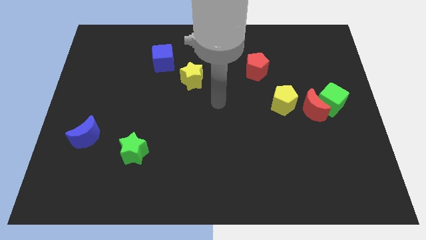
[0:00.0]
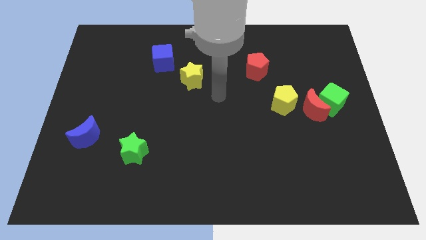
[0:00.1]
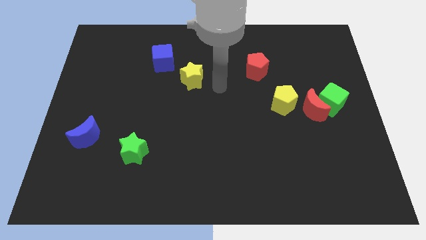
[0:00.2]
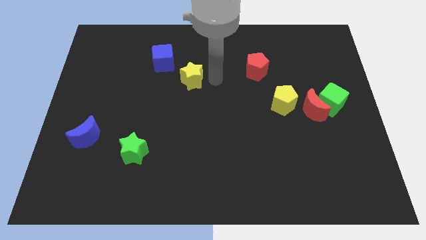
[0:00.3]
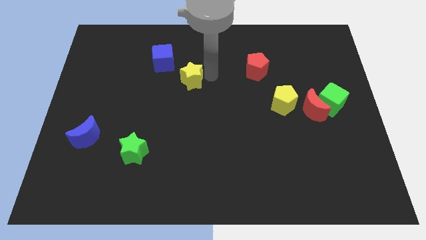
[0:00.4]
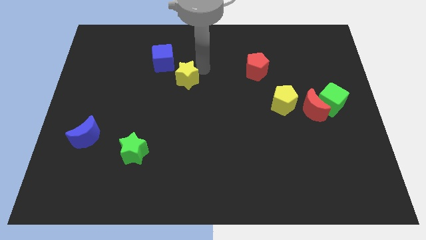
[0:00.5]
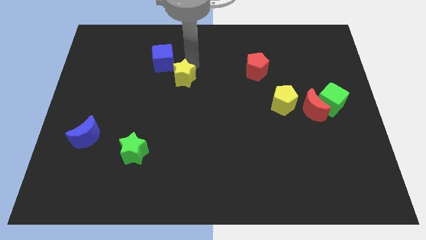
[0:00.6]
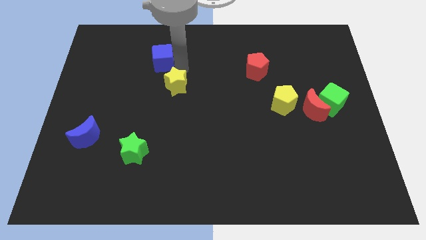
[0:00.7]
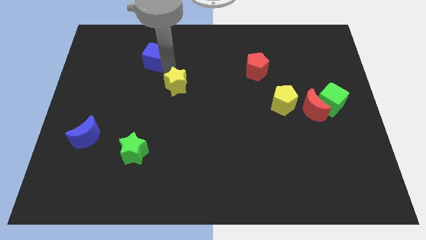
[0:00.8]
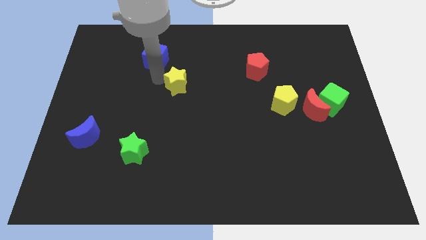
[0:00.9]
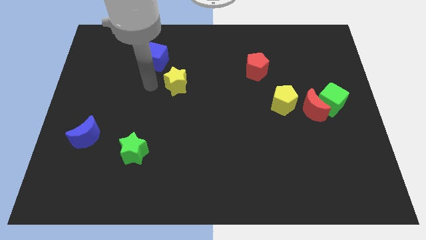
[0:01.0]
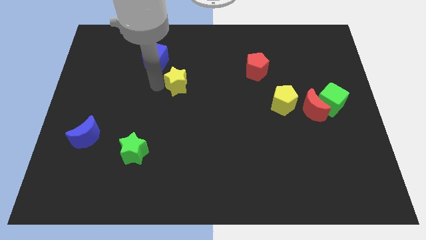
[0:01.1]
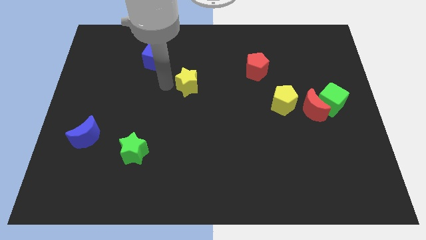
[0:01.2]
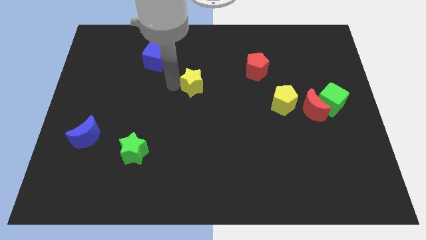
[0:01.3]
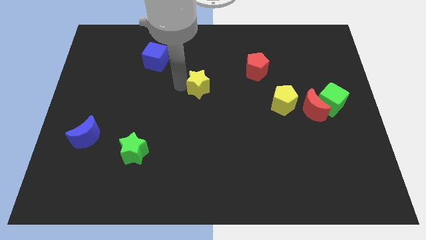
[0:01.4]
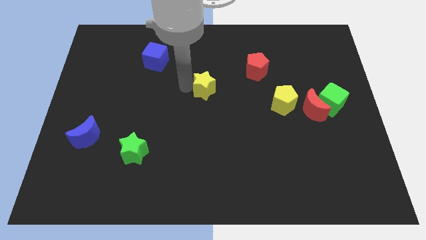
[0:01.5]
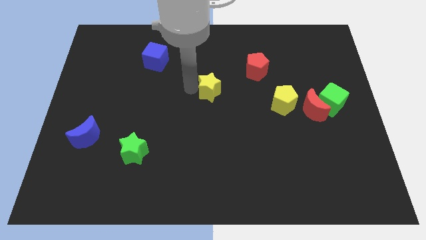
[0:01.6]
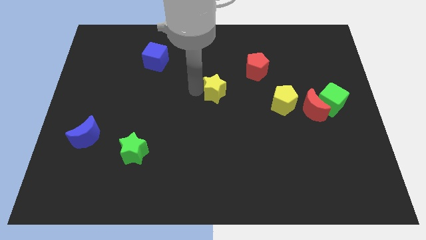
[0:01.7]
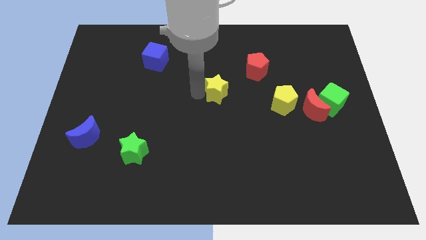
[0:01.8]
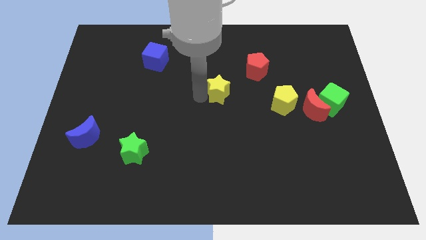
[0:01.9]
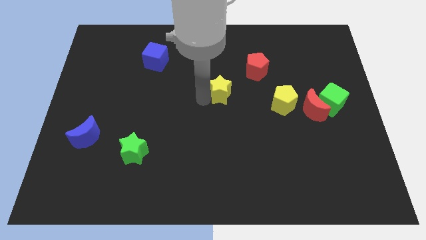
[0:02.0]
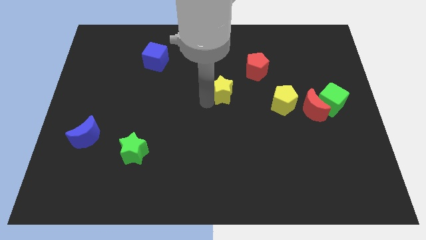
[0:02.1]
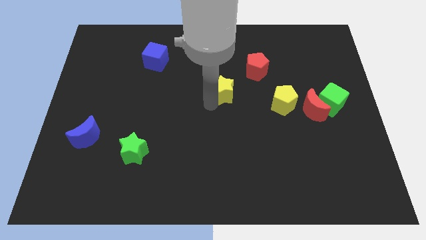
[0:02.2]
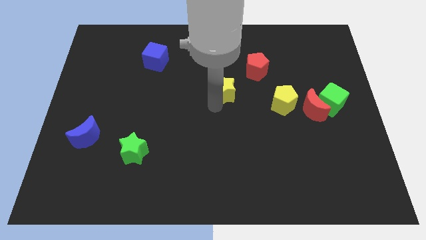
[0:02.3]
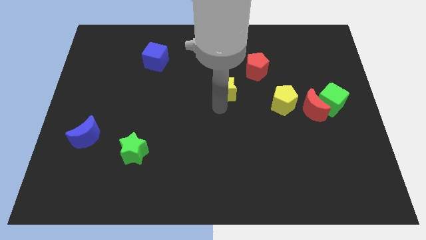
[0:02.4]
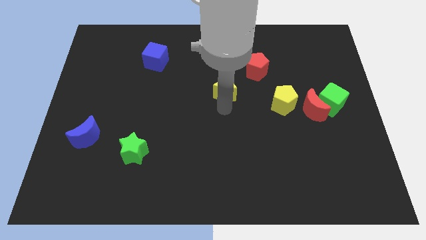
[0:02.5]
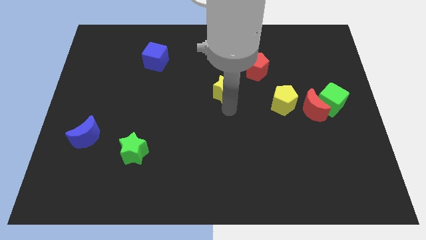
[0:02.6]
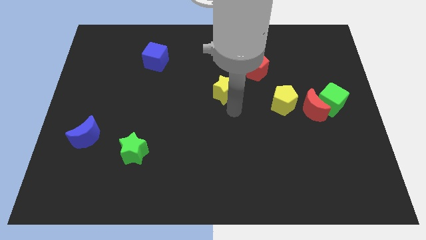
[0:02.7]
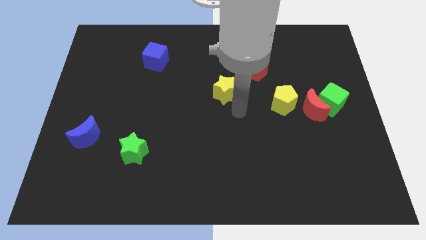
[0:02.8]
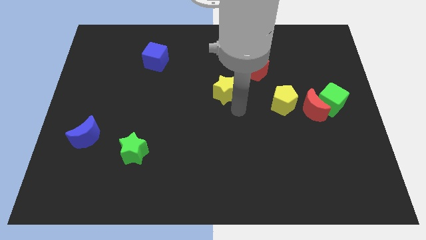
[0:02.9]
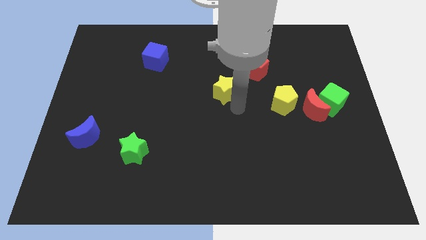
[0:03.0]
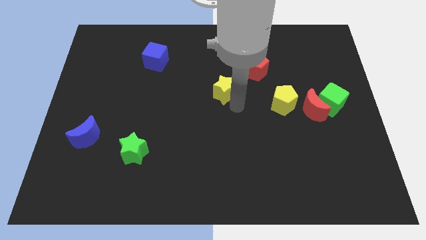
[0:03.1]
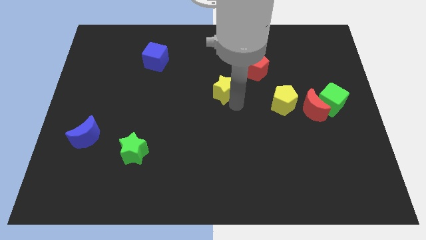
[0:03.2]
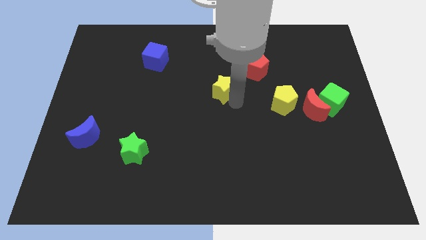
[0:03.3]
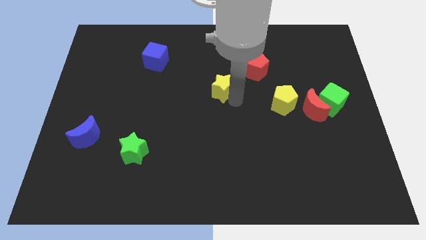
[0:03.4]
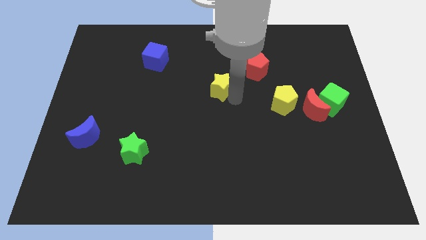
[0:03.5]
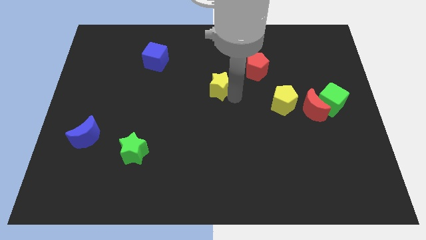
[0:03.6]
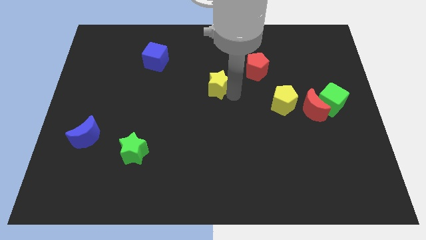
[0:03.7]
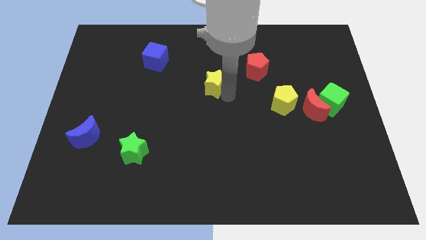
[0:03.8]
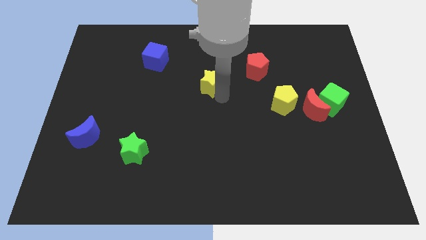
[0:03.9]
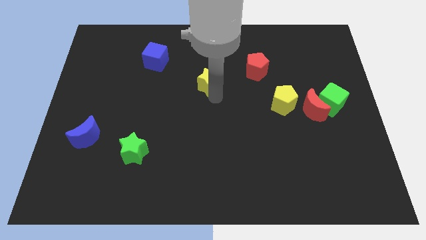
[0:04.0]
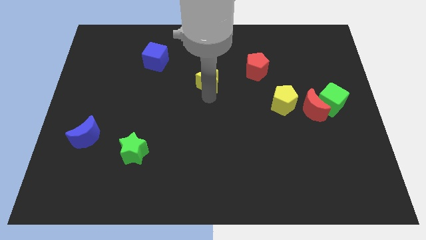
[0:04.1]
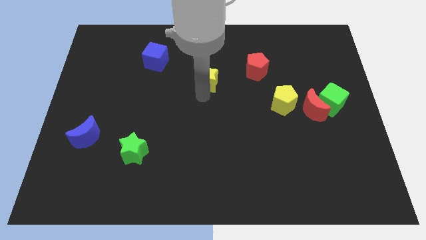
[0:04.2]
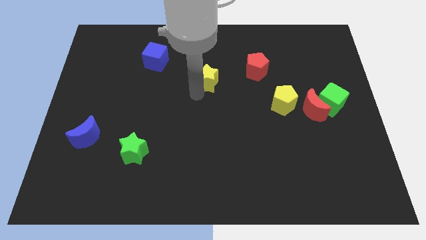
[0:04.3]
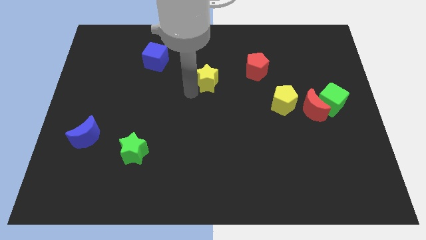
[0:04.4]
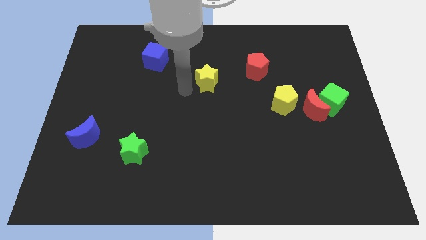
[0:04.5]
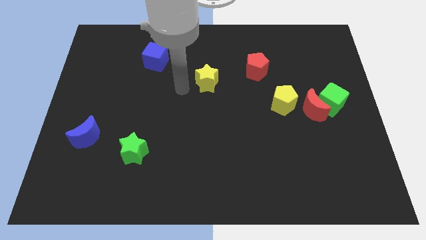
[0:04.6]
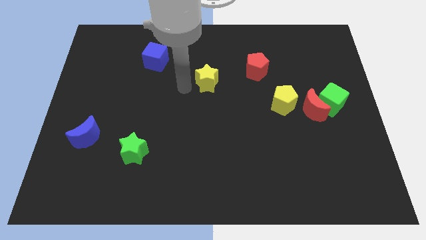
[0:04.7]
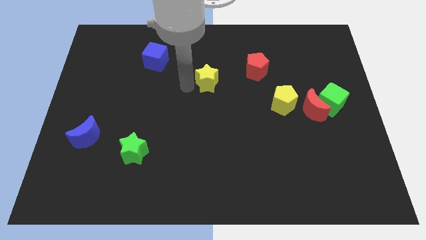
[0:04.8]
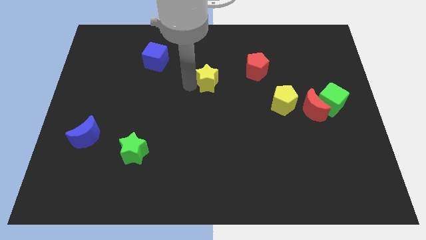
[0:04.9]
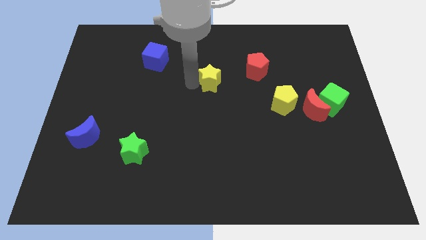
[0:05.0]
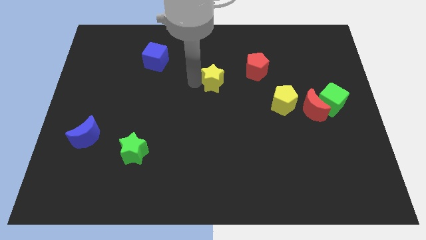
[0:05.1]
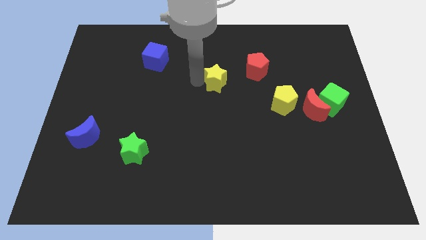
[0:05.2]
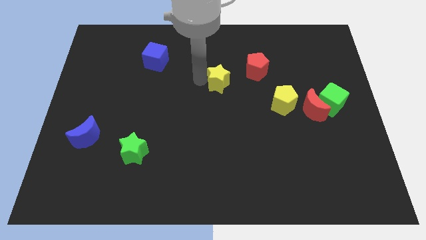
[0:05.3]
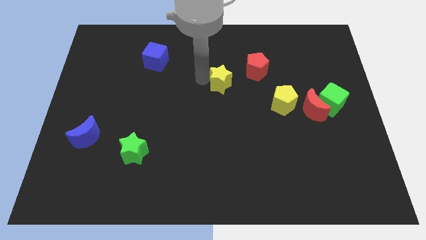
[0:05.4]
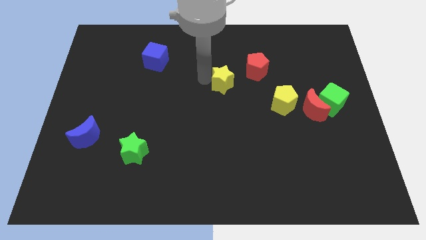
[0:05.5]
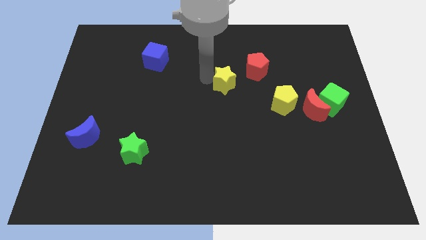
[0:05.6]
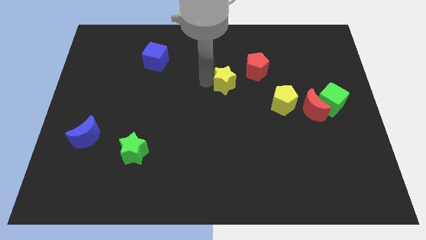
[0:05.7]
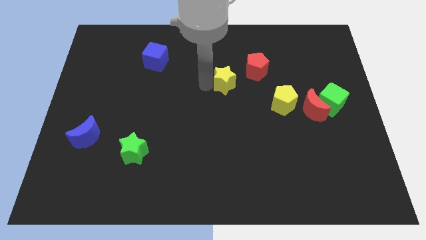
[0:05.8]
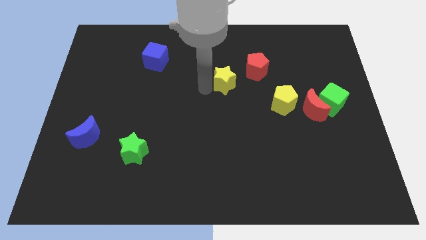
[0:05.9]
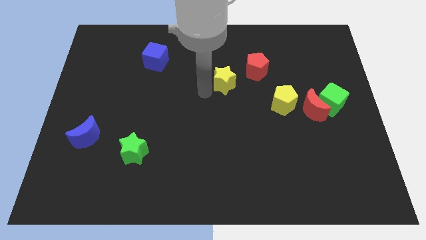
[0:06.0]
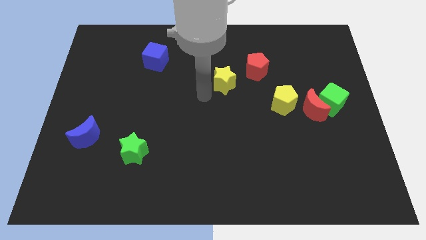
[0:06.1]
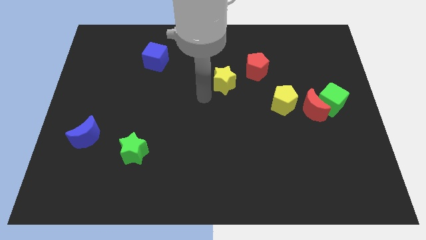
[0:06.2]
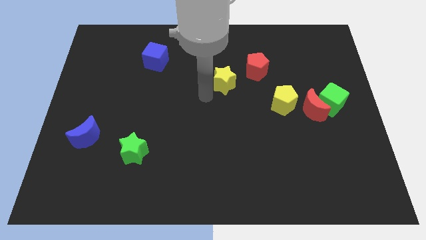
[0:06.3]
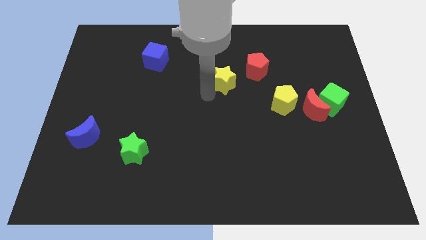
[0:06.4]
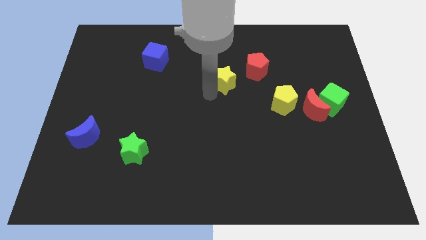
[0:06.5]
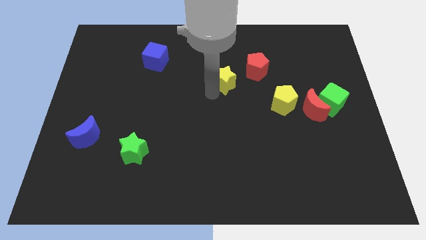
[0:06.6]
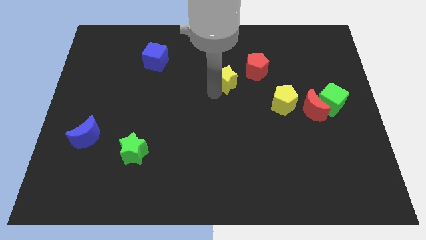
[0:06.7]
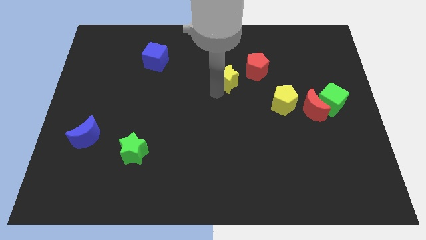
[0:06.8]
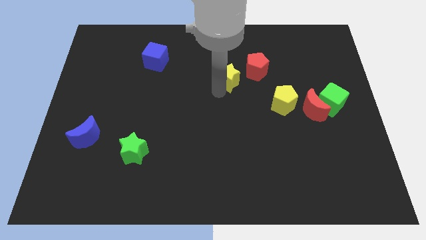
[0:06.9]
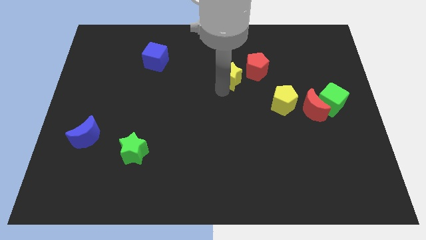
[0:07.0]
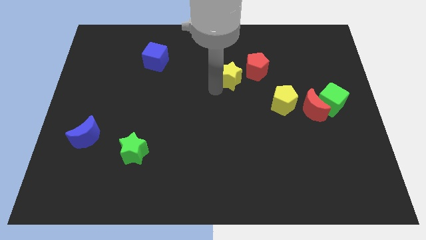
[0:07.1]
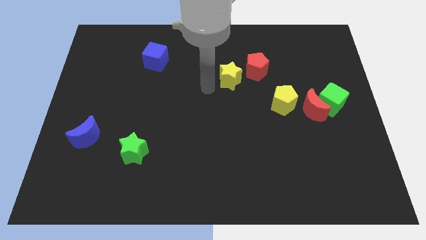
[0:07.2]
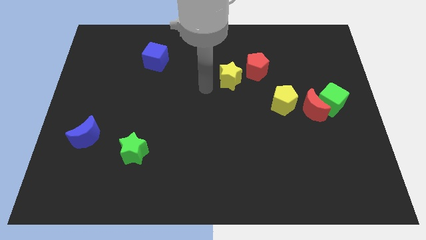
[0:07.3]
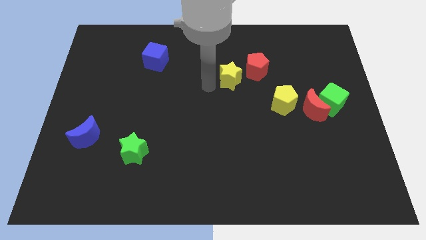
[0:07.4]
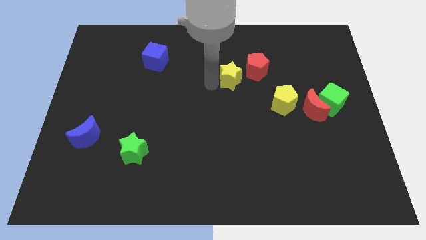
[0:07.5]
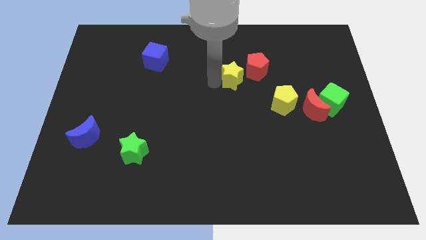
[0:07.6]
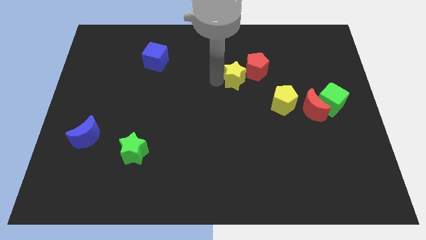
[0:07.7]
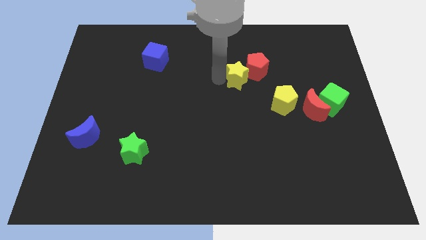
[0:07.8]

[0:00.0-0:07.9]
put the yellow star towards the red pentagon
